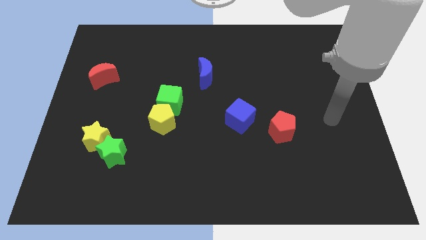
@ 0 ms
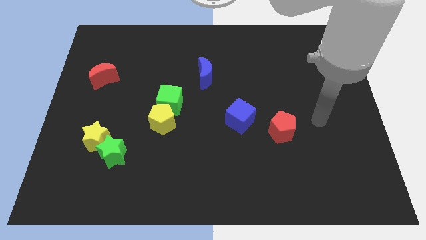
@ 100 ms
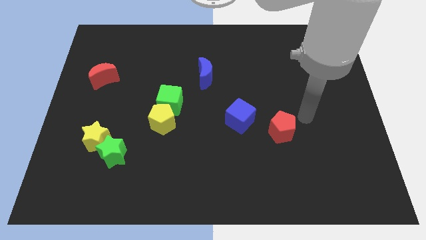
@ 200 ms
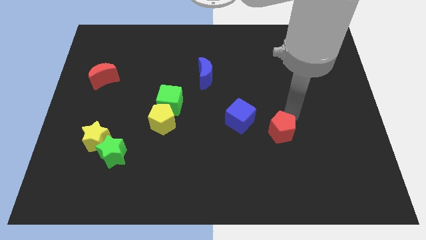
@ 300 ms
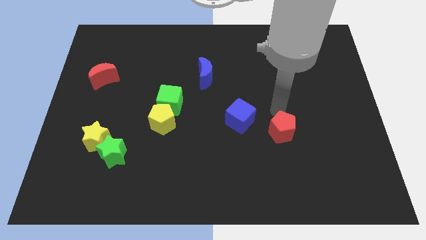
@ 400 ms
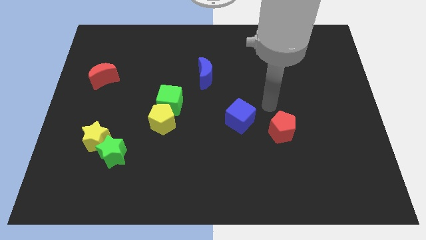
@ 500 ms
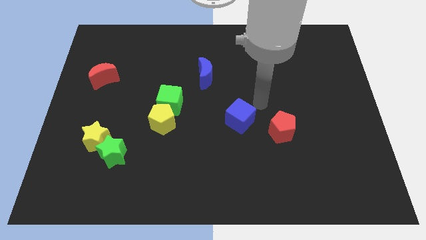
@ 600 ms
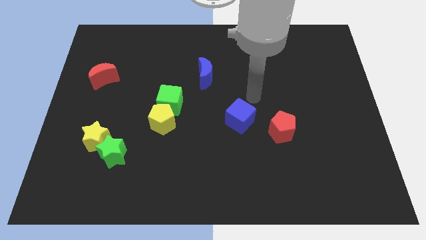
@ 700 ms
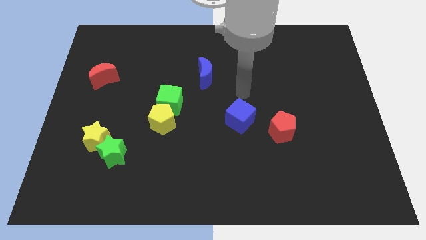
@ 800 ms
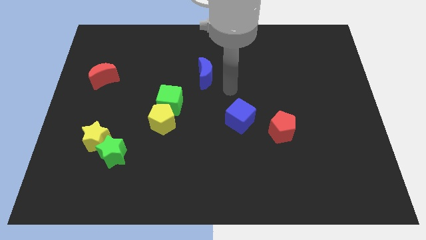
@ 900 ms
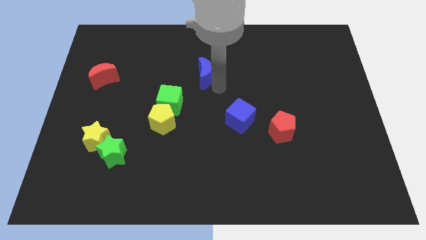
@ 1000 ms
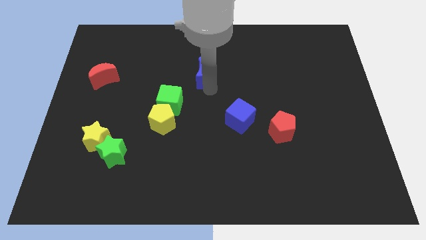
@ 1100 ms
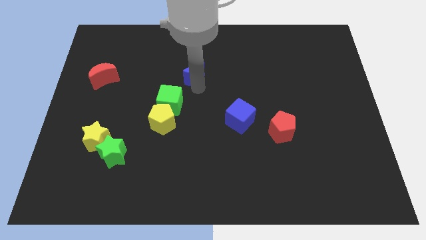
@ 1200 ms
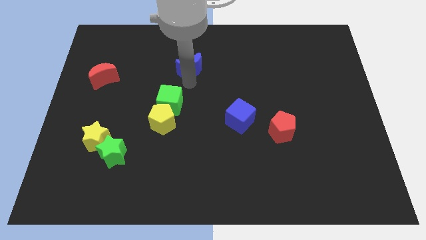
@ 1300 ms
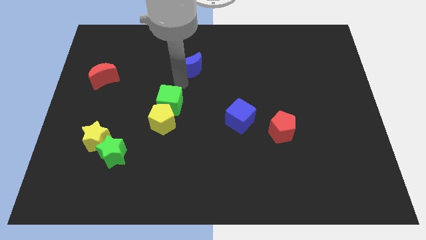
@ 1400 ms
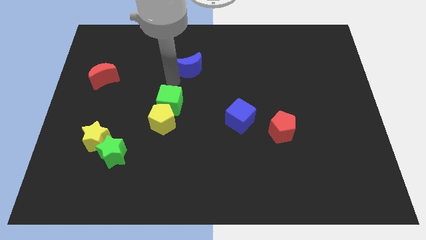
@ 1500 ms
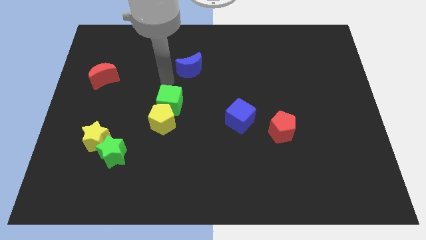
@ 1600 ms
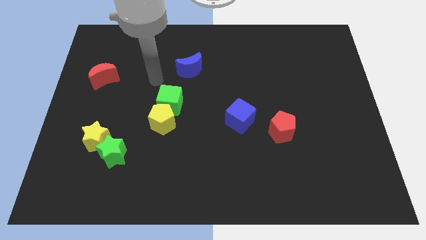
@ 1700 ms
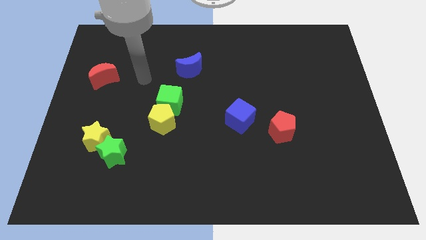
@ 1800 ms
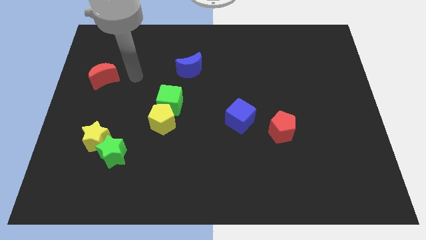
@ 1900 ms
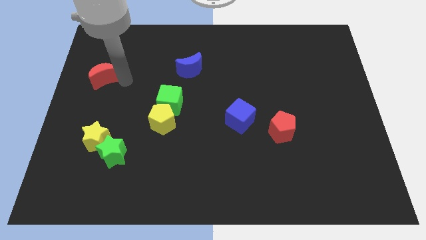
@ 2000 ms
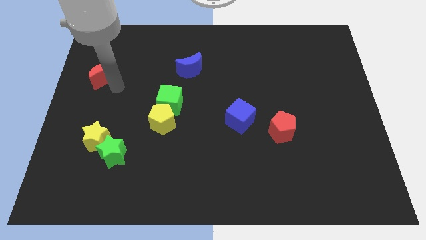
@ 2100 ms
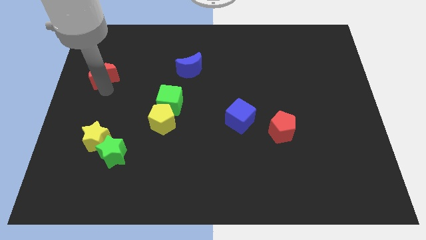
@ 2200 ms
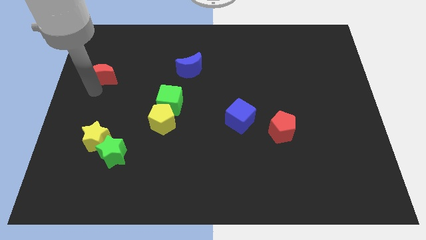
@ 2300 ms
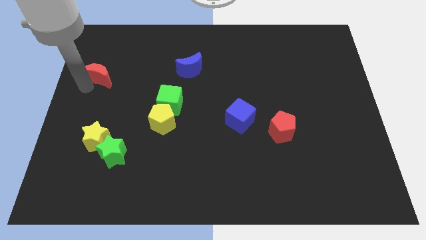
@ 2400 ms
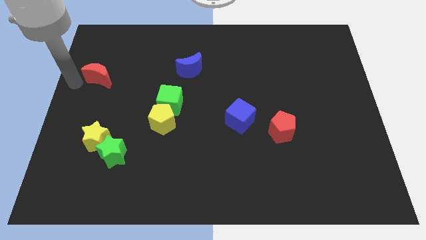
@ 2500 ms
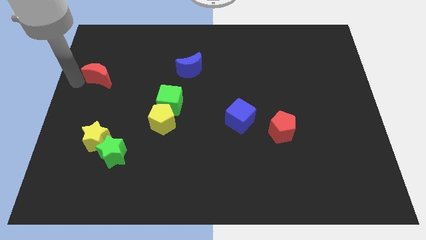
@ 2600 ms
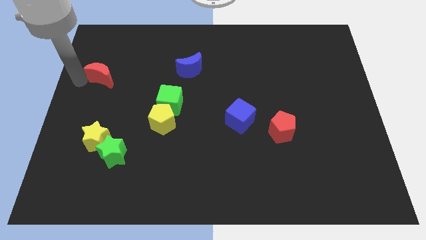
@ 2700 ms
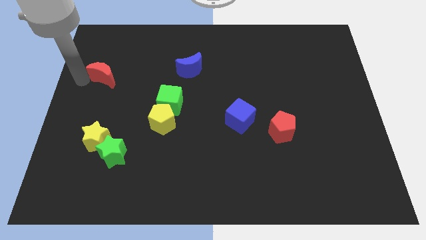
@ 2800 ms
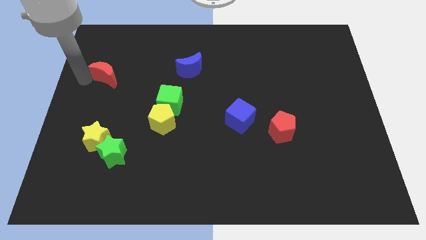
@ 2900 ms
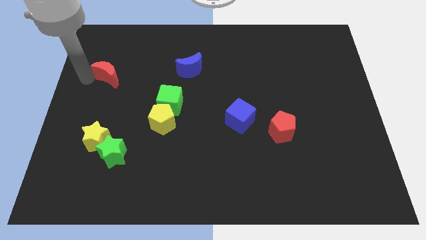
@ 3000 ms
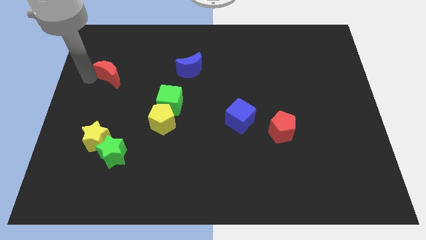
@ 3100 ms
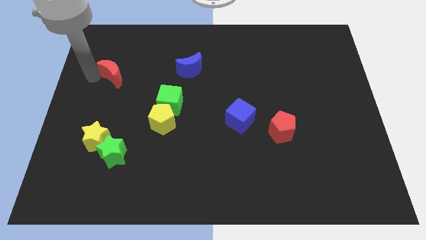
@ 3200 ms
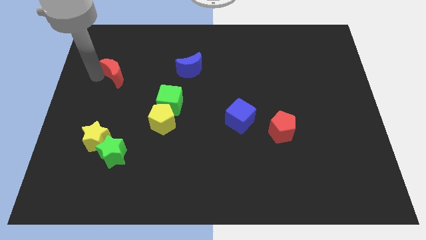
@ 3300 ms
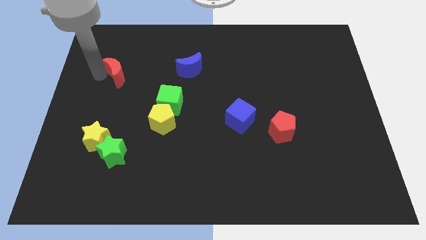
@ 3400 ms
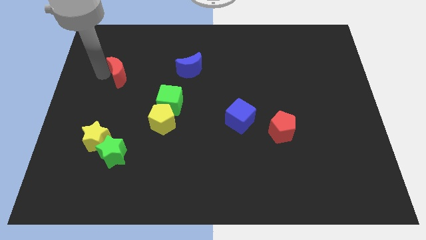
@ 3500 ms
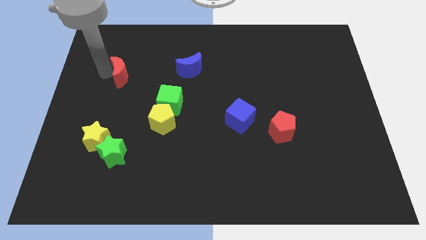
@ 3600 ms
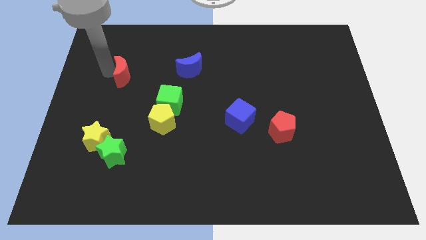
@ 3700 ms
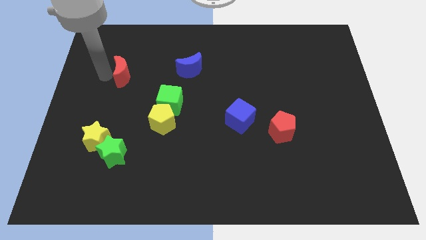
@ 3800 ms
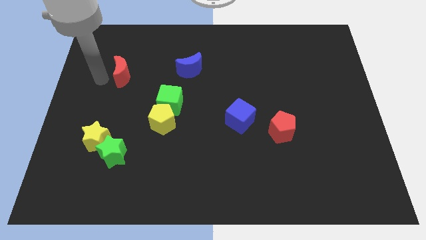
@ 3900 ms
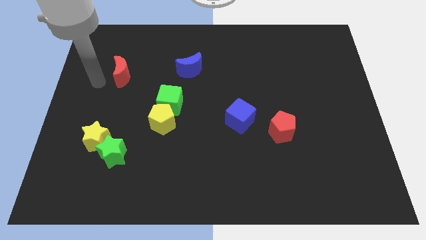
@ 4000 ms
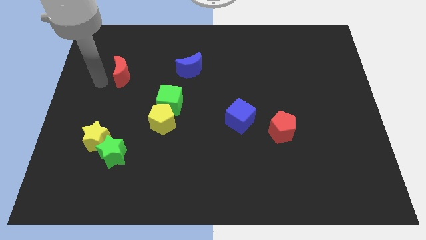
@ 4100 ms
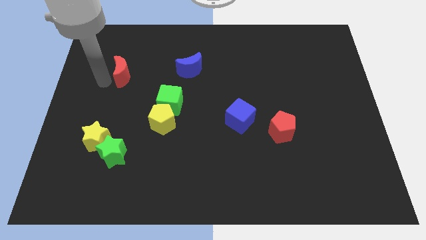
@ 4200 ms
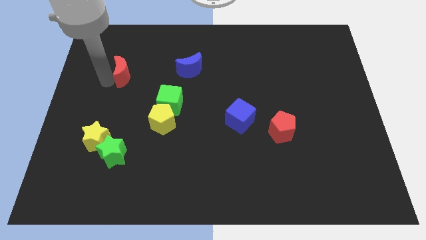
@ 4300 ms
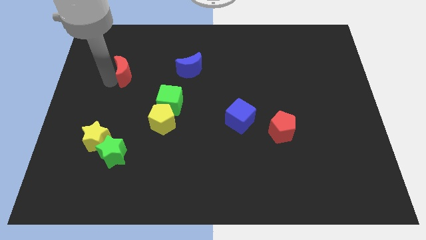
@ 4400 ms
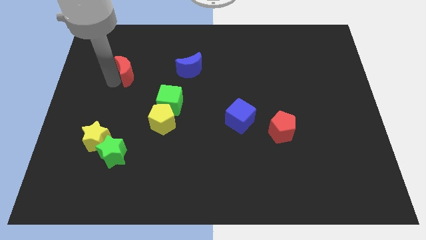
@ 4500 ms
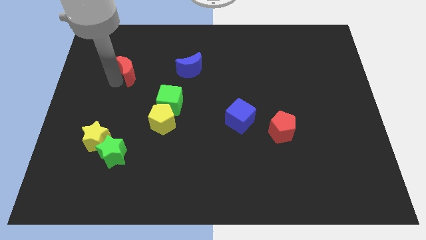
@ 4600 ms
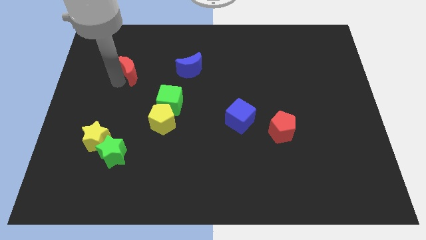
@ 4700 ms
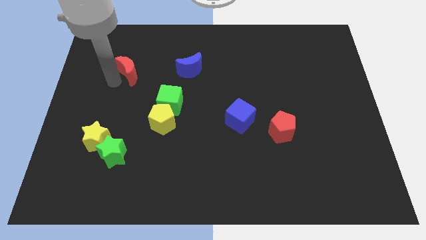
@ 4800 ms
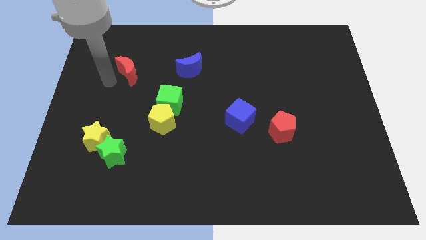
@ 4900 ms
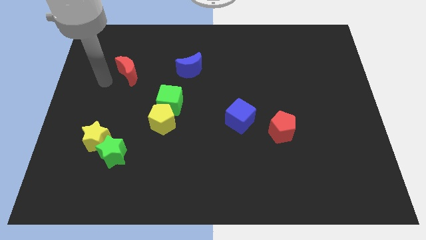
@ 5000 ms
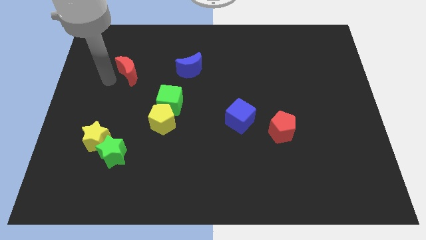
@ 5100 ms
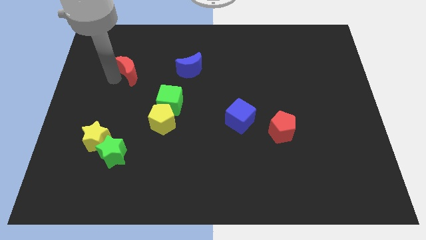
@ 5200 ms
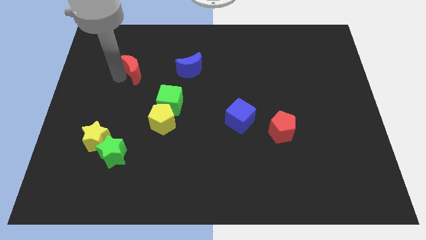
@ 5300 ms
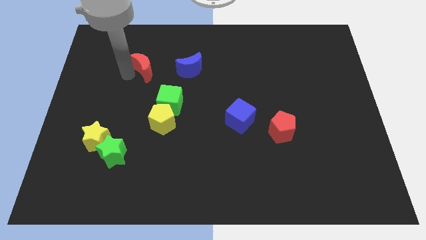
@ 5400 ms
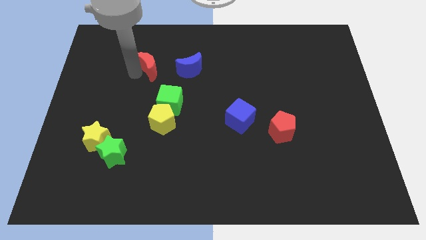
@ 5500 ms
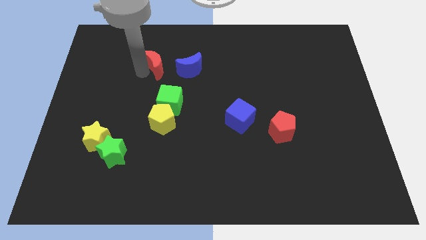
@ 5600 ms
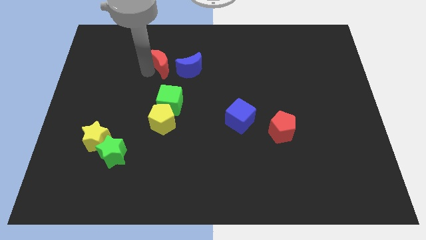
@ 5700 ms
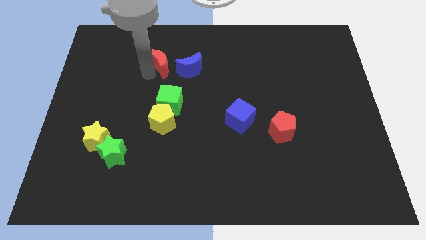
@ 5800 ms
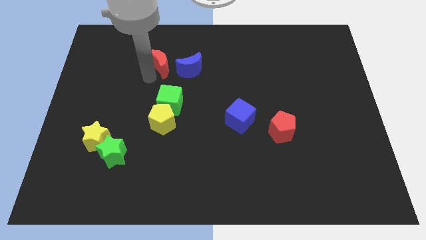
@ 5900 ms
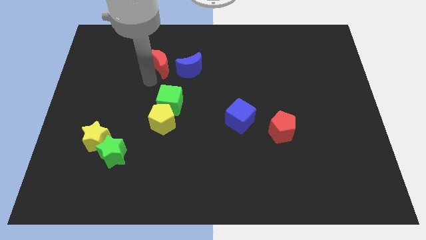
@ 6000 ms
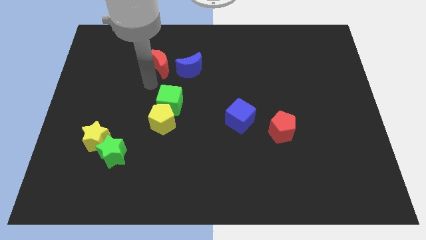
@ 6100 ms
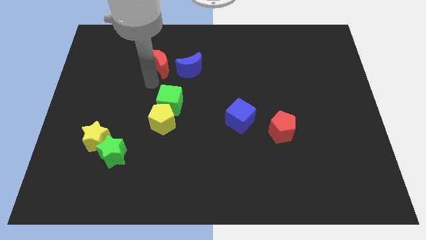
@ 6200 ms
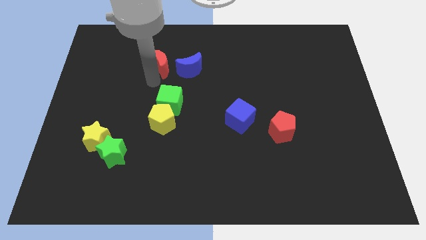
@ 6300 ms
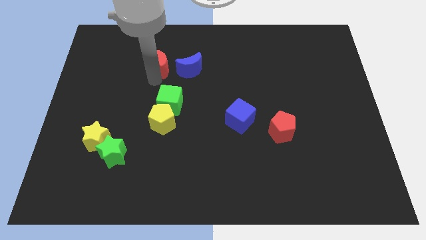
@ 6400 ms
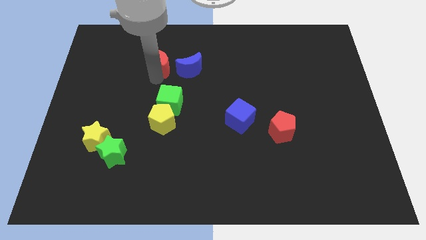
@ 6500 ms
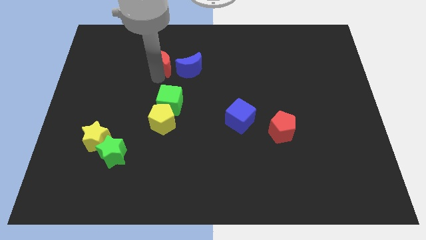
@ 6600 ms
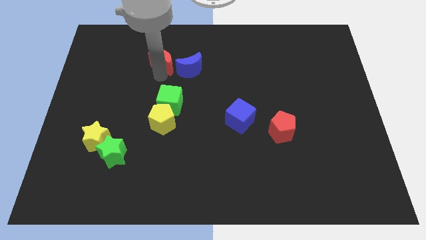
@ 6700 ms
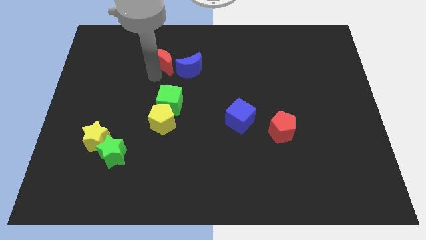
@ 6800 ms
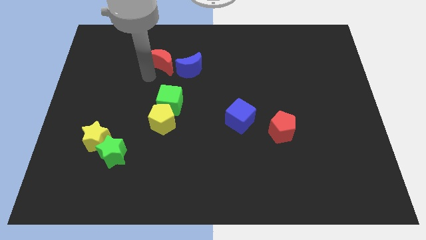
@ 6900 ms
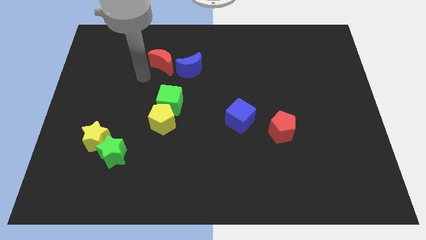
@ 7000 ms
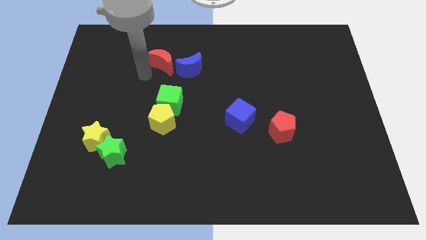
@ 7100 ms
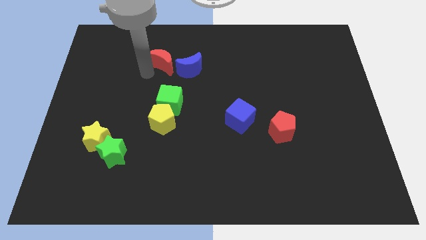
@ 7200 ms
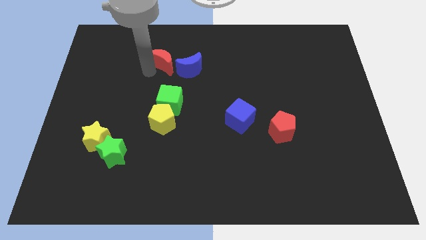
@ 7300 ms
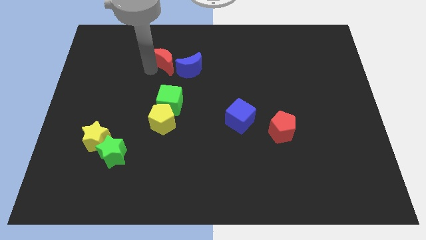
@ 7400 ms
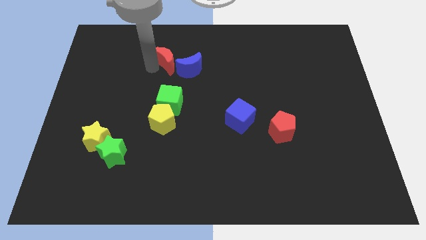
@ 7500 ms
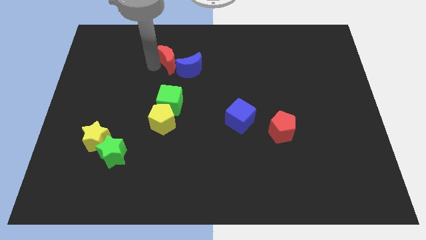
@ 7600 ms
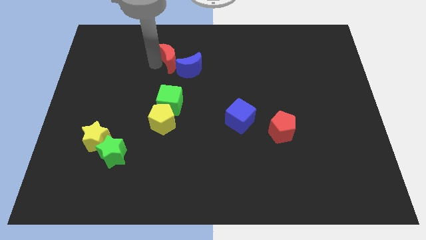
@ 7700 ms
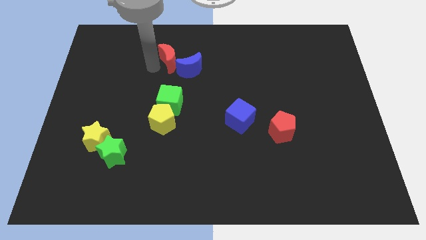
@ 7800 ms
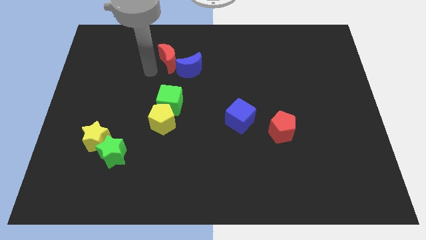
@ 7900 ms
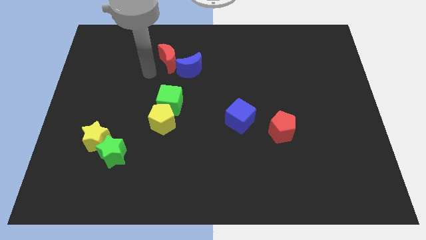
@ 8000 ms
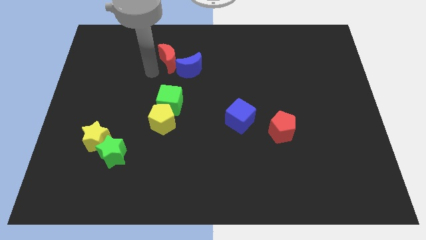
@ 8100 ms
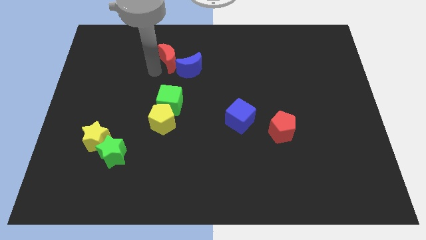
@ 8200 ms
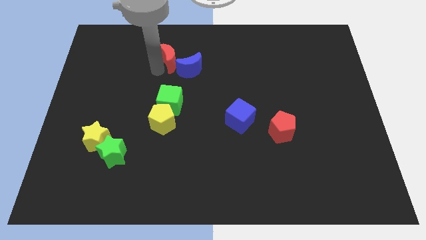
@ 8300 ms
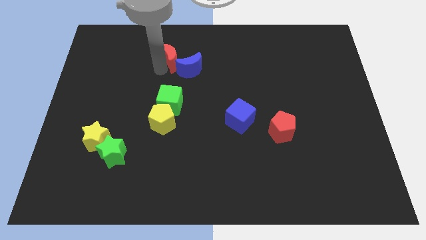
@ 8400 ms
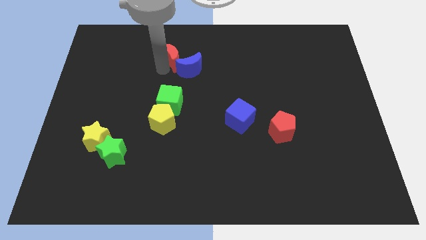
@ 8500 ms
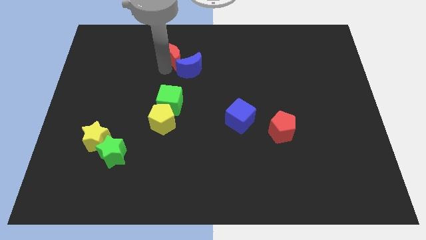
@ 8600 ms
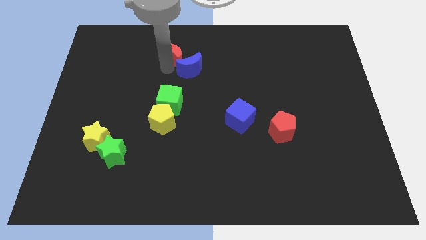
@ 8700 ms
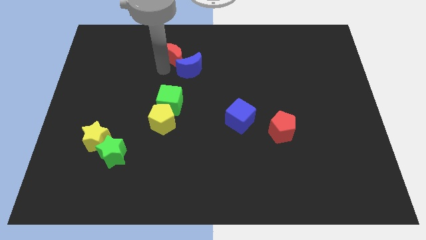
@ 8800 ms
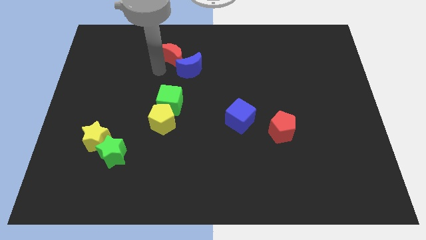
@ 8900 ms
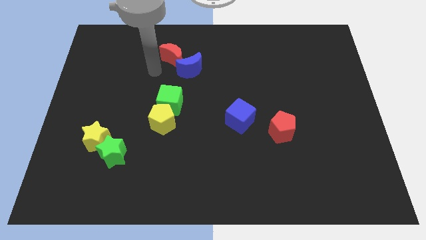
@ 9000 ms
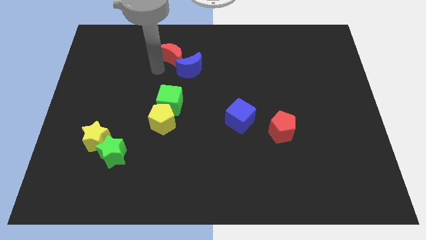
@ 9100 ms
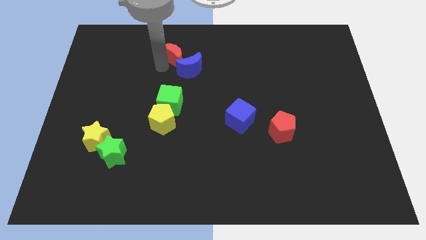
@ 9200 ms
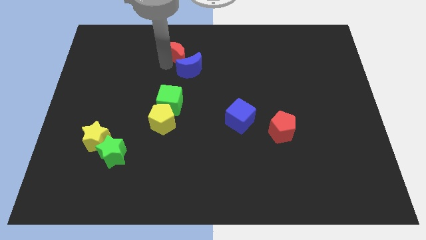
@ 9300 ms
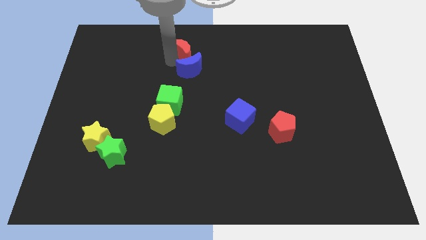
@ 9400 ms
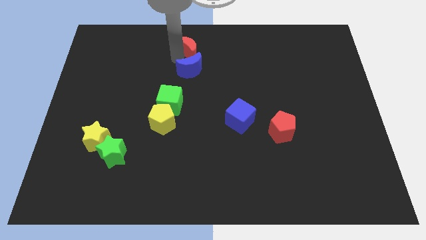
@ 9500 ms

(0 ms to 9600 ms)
slide the red moon to the top side
